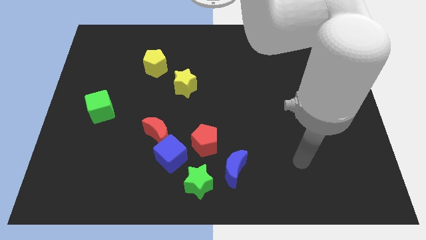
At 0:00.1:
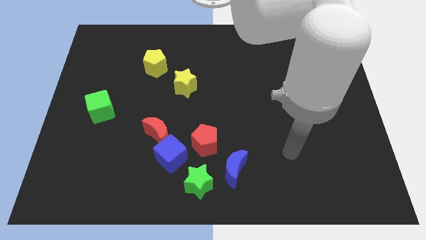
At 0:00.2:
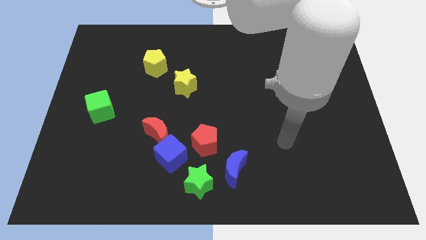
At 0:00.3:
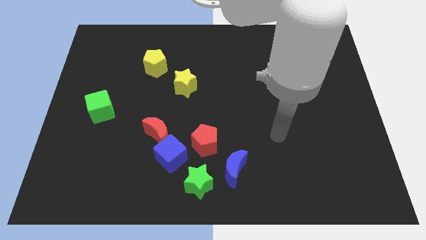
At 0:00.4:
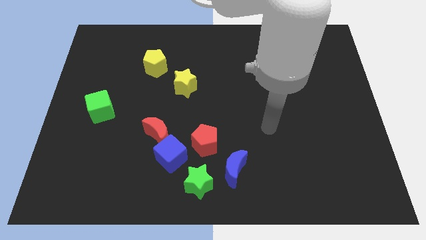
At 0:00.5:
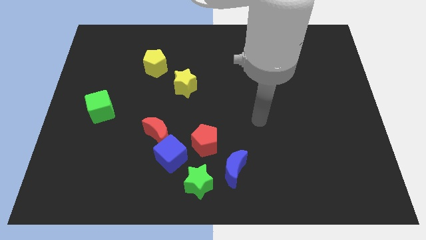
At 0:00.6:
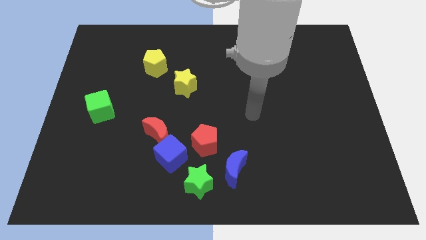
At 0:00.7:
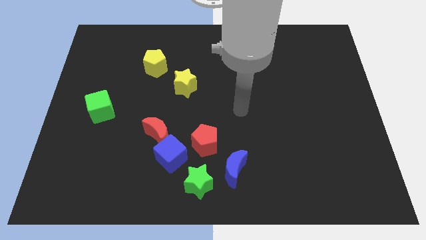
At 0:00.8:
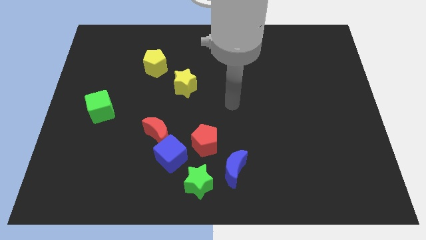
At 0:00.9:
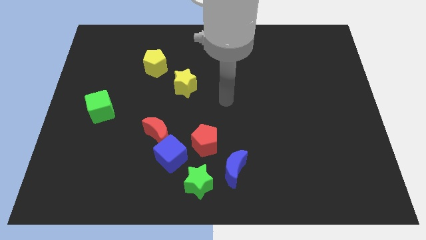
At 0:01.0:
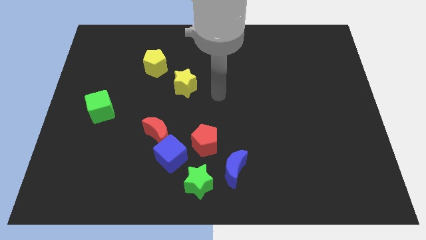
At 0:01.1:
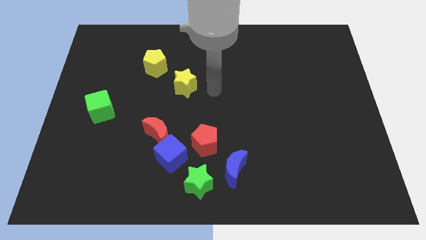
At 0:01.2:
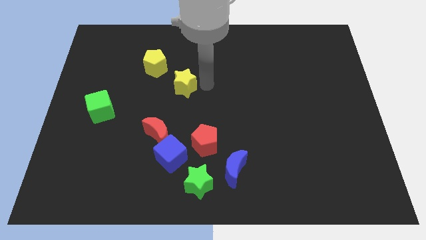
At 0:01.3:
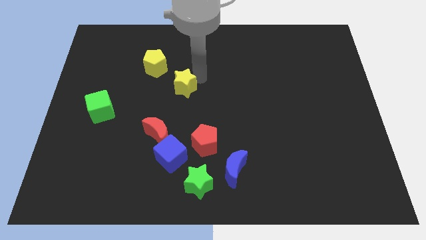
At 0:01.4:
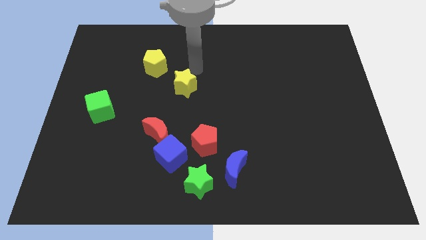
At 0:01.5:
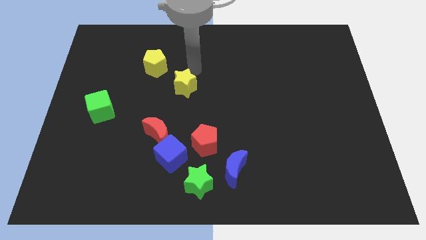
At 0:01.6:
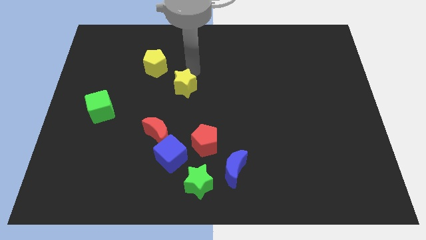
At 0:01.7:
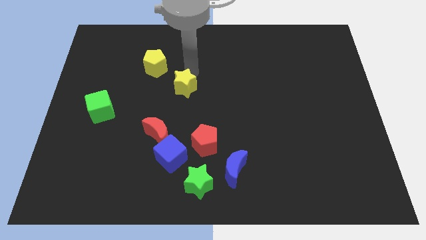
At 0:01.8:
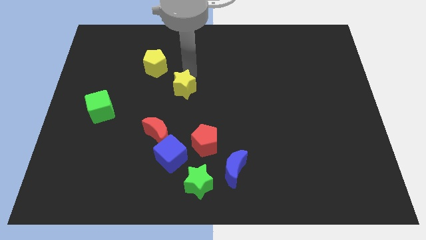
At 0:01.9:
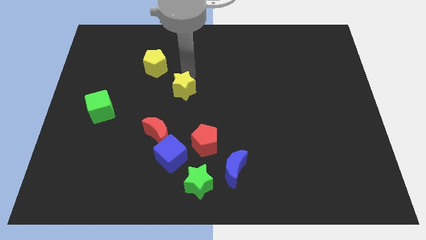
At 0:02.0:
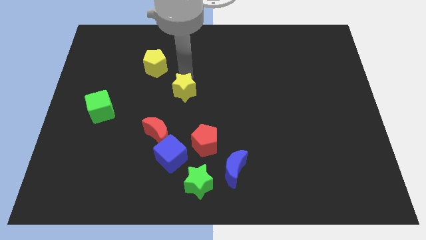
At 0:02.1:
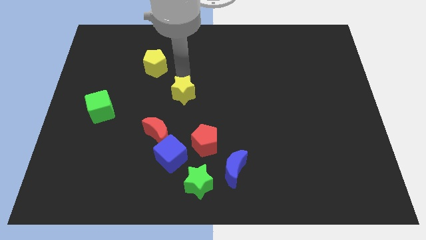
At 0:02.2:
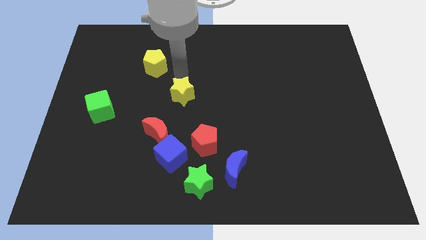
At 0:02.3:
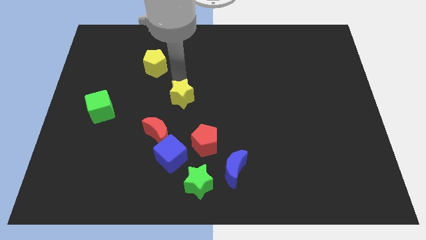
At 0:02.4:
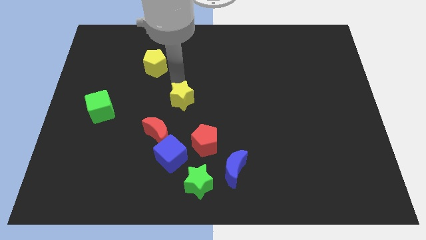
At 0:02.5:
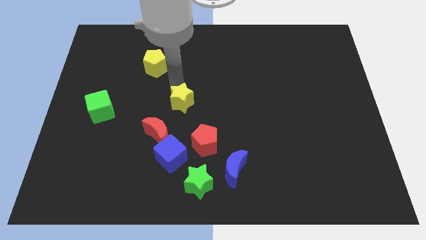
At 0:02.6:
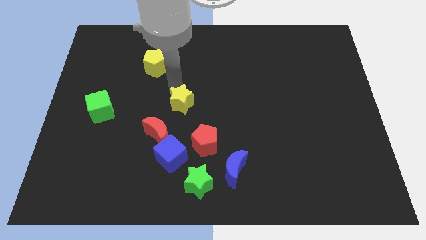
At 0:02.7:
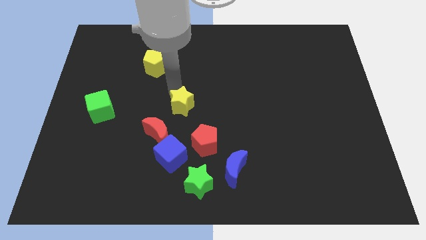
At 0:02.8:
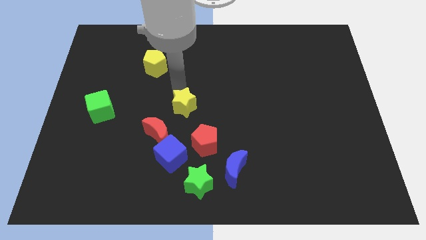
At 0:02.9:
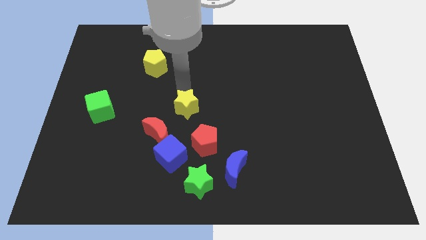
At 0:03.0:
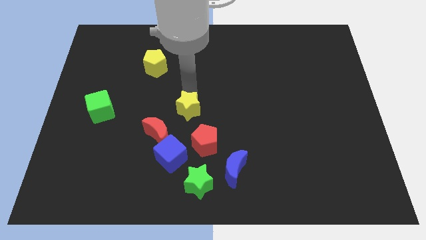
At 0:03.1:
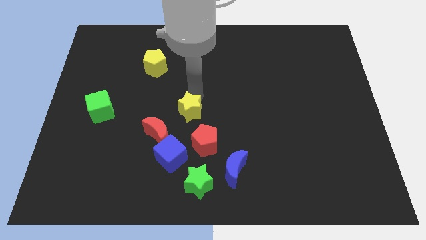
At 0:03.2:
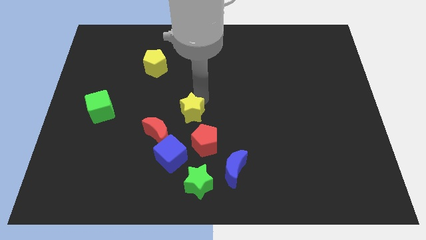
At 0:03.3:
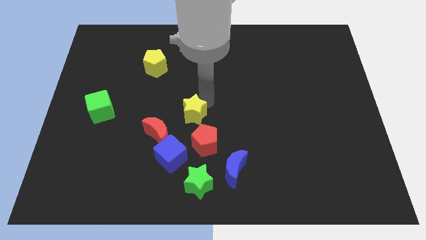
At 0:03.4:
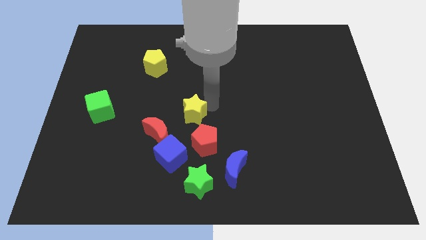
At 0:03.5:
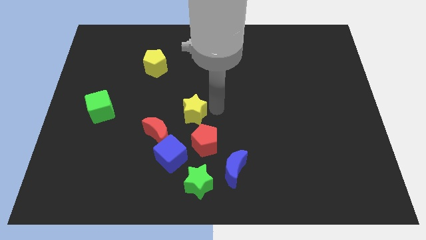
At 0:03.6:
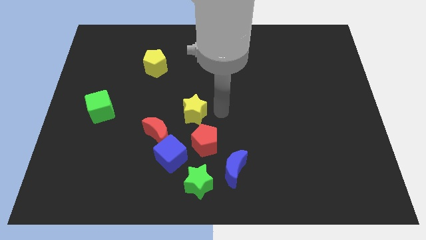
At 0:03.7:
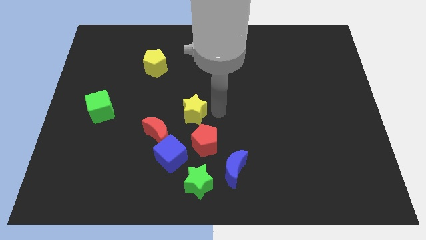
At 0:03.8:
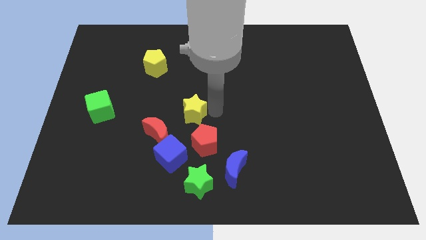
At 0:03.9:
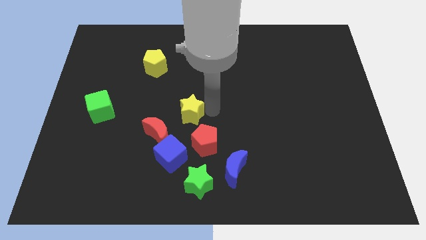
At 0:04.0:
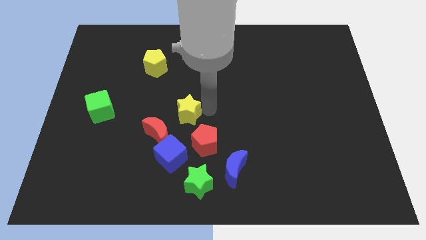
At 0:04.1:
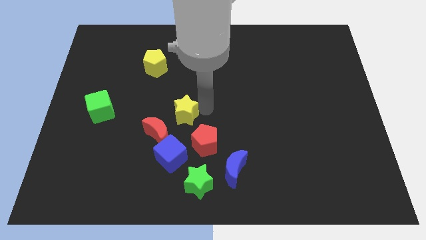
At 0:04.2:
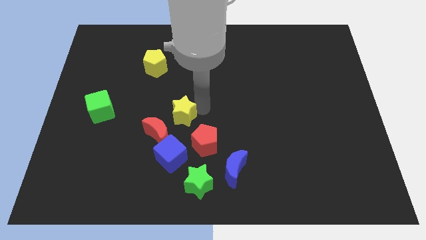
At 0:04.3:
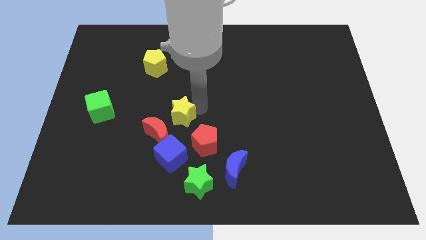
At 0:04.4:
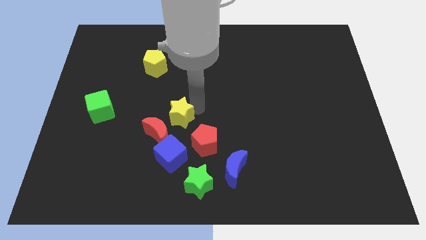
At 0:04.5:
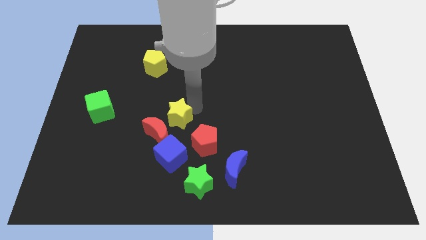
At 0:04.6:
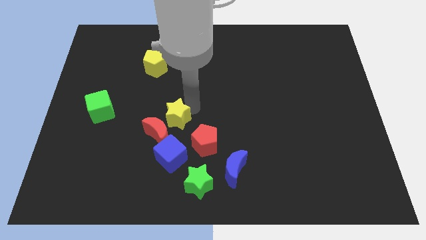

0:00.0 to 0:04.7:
move the yellow star close to the red moon

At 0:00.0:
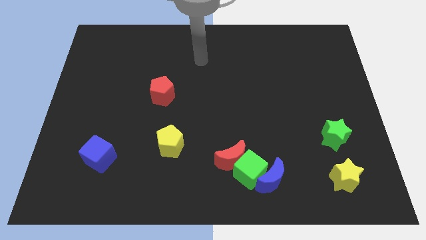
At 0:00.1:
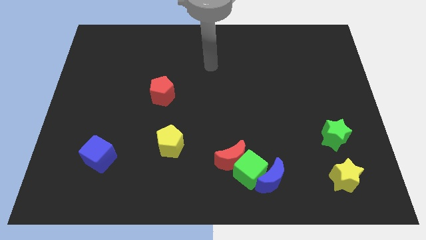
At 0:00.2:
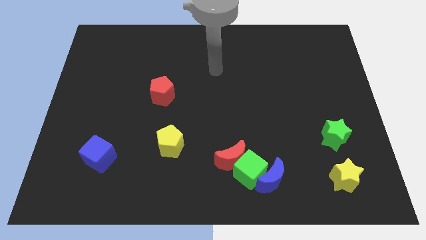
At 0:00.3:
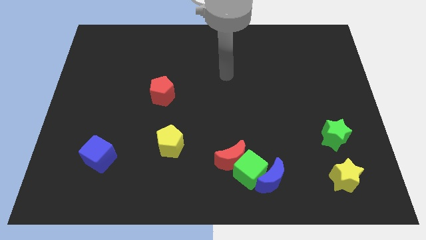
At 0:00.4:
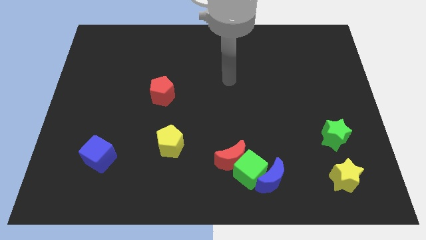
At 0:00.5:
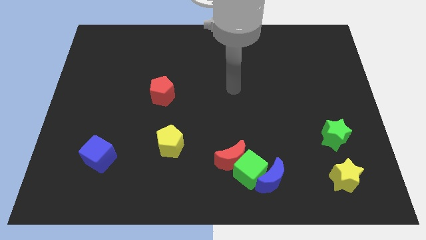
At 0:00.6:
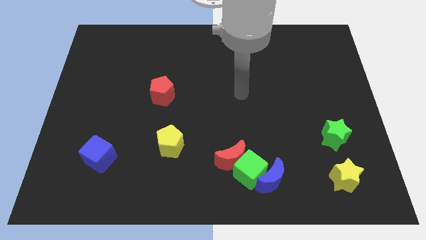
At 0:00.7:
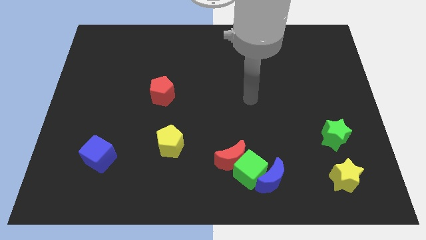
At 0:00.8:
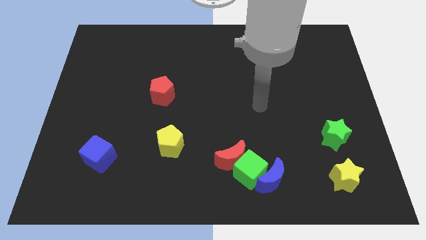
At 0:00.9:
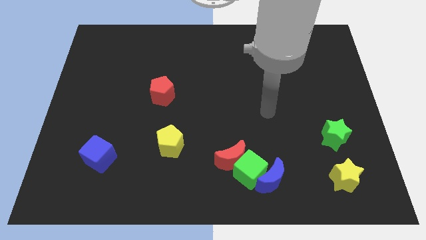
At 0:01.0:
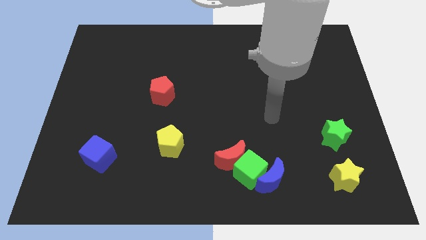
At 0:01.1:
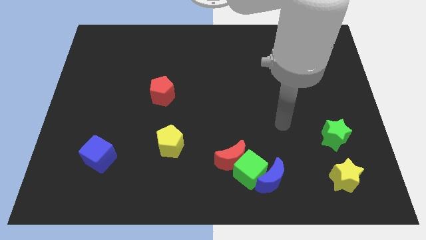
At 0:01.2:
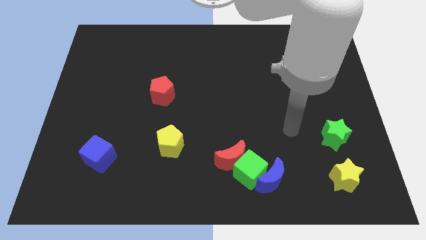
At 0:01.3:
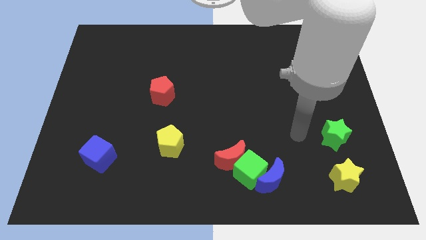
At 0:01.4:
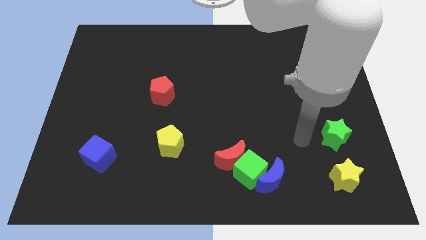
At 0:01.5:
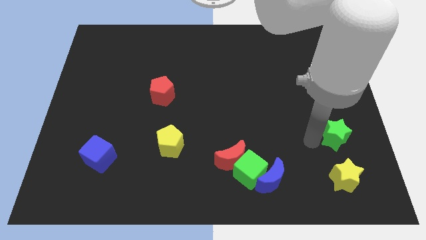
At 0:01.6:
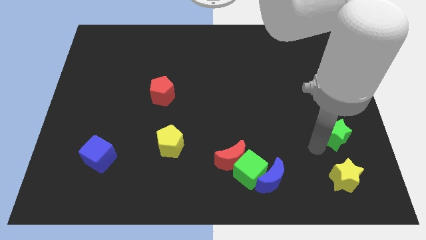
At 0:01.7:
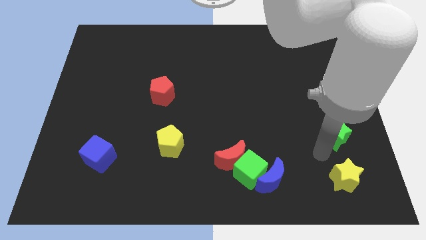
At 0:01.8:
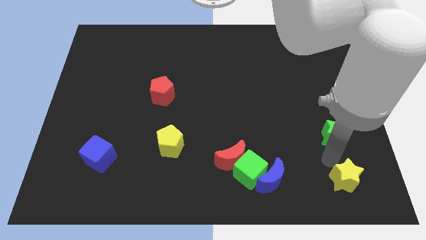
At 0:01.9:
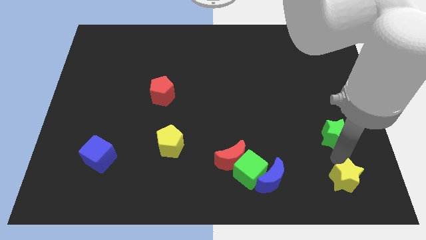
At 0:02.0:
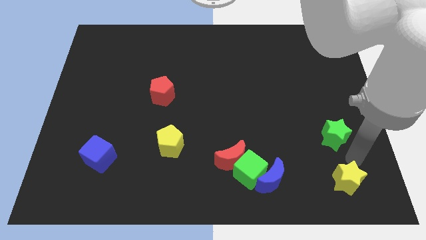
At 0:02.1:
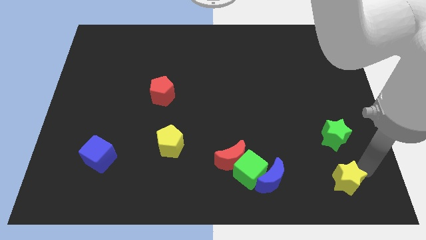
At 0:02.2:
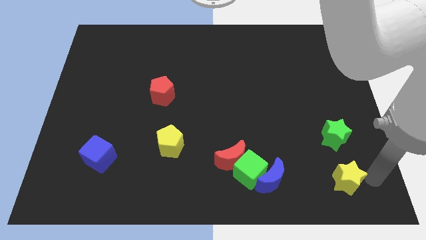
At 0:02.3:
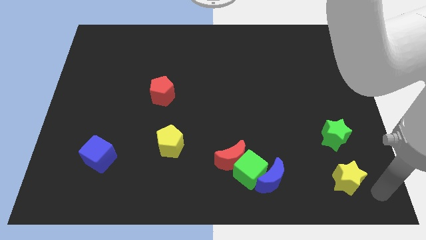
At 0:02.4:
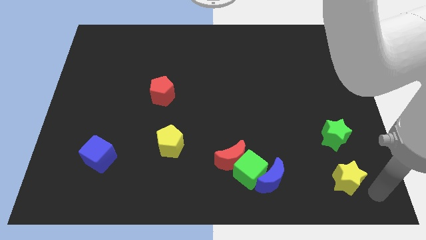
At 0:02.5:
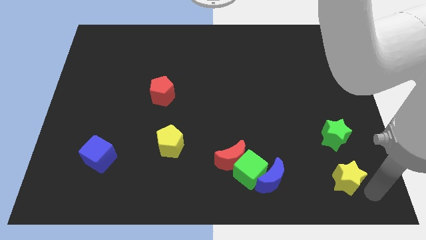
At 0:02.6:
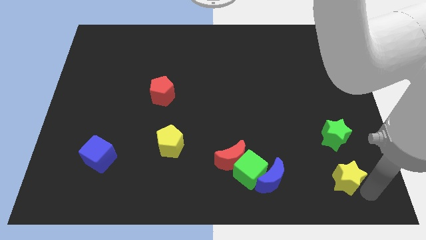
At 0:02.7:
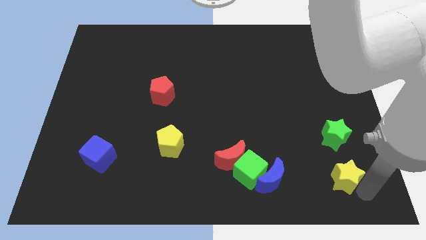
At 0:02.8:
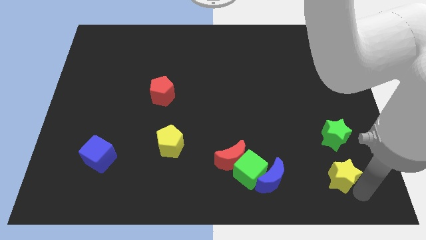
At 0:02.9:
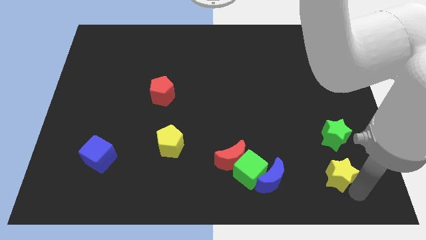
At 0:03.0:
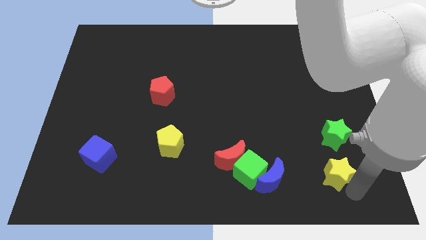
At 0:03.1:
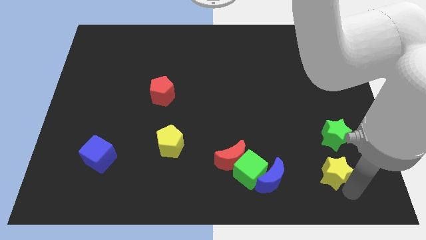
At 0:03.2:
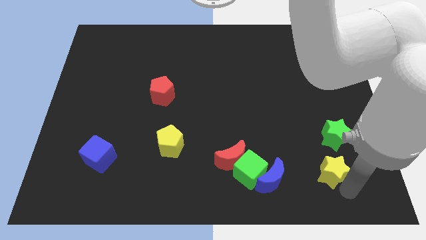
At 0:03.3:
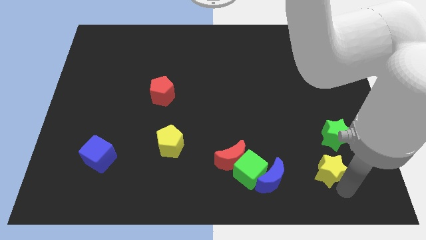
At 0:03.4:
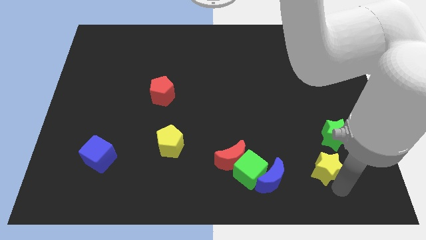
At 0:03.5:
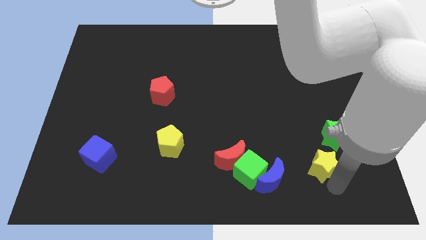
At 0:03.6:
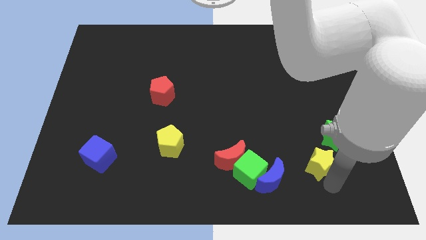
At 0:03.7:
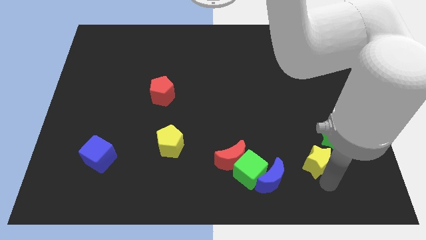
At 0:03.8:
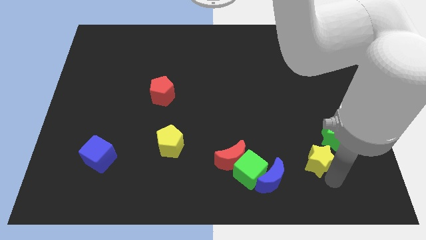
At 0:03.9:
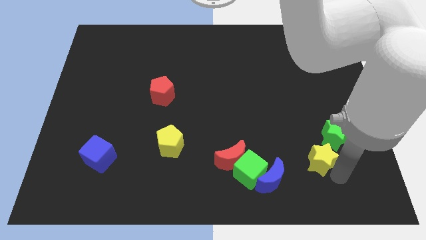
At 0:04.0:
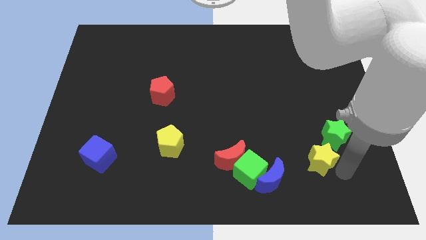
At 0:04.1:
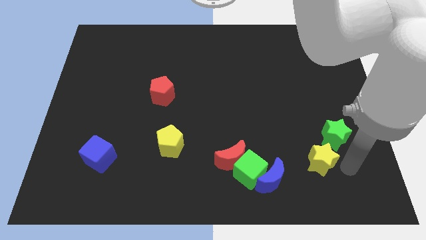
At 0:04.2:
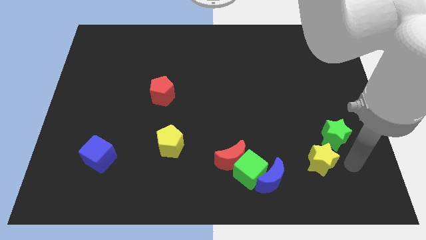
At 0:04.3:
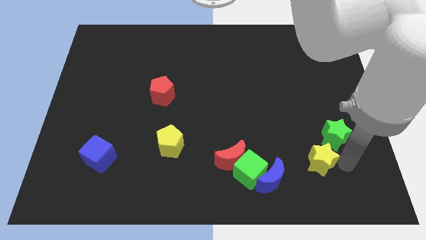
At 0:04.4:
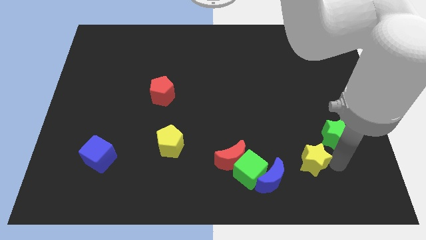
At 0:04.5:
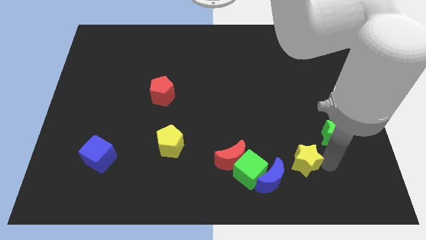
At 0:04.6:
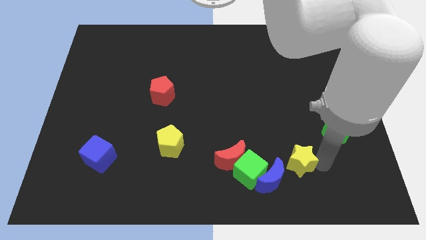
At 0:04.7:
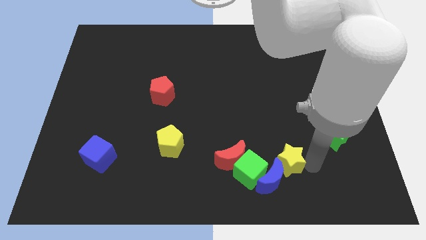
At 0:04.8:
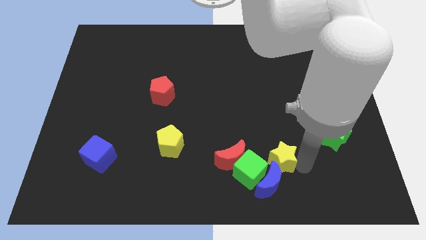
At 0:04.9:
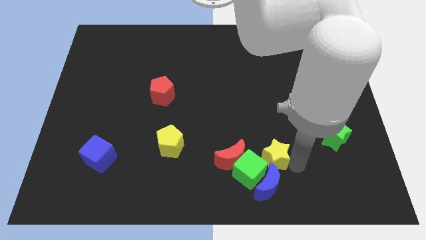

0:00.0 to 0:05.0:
move the yellow star towards the green cube
